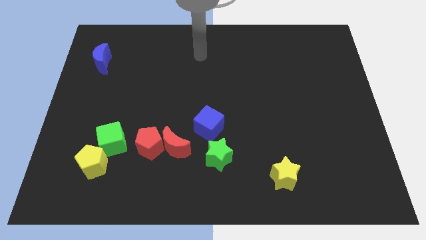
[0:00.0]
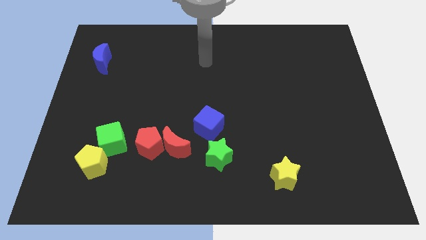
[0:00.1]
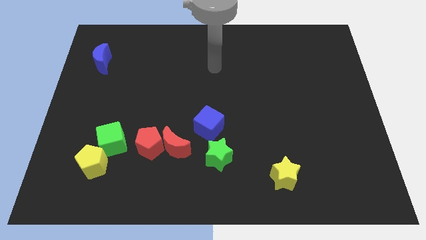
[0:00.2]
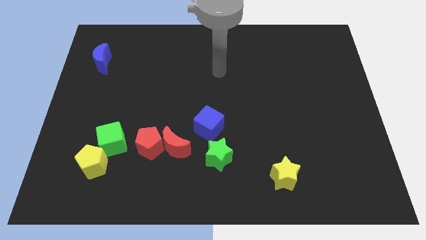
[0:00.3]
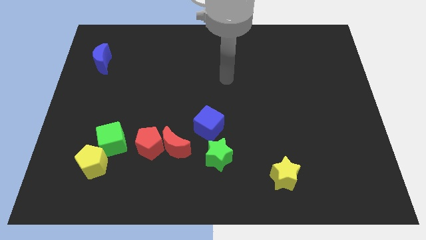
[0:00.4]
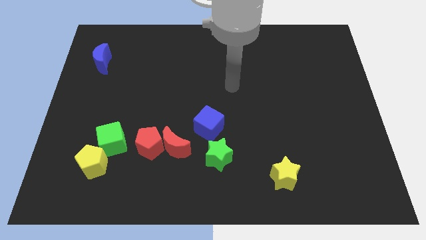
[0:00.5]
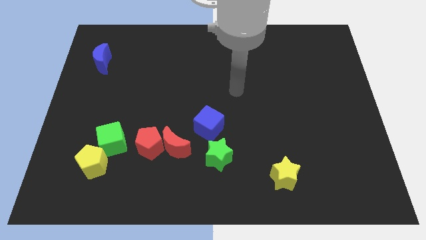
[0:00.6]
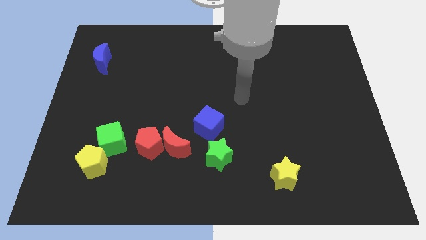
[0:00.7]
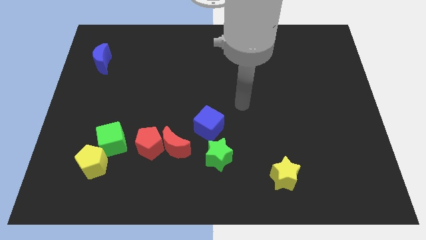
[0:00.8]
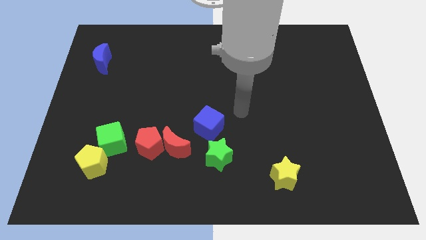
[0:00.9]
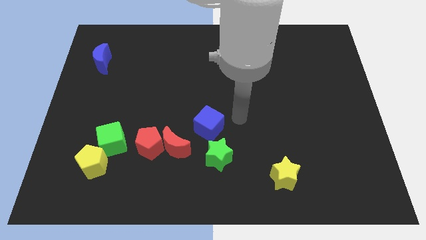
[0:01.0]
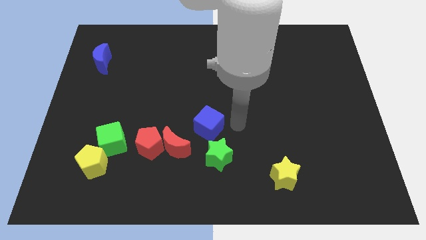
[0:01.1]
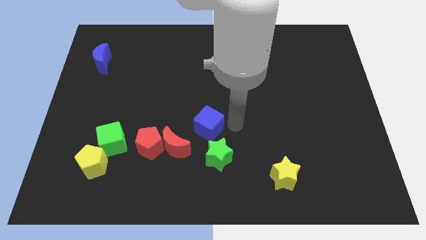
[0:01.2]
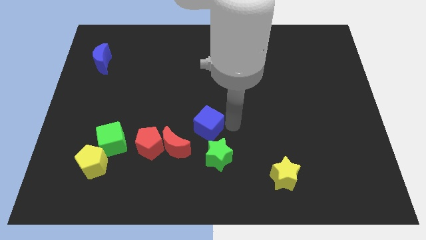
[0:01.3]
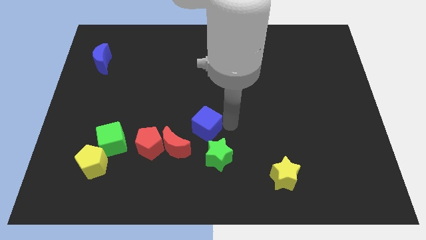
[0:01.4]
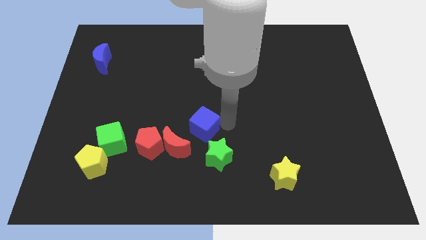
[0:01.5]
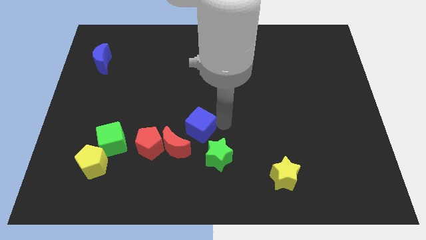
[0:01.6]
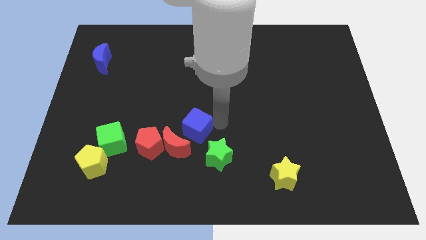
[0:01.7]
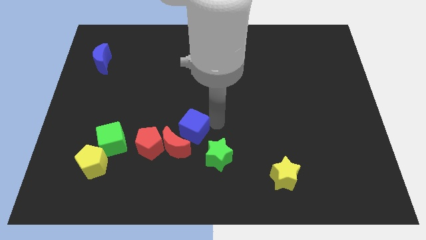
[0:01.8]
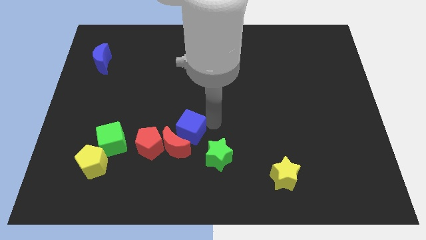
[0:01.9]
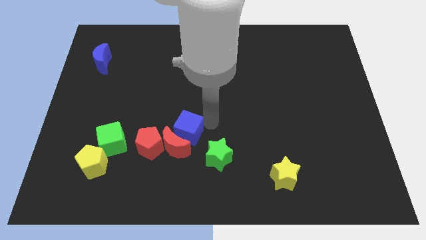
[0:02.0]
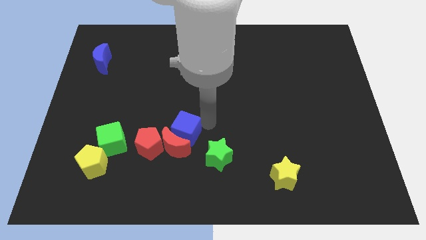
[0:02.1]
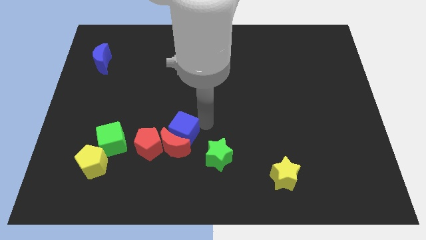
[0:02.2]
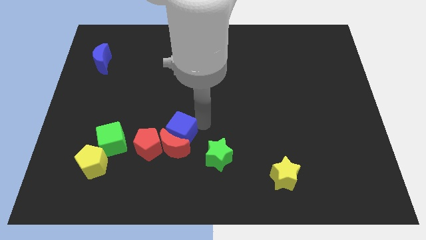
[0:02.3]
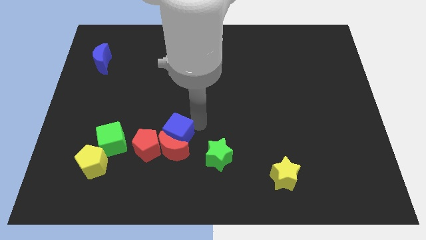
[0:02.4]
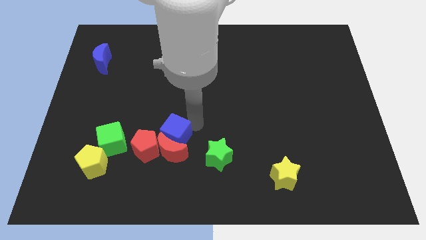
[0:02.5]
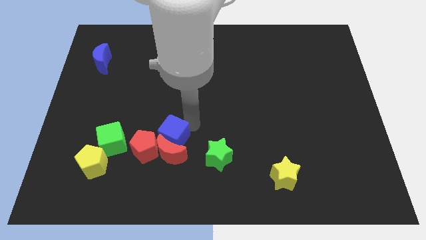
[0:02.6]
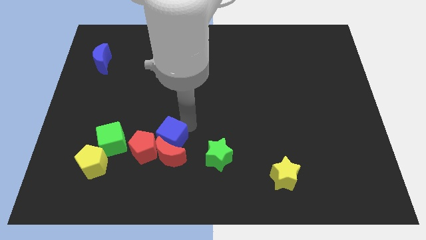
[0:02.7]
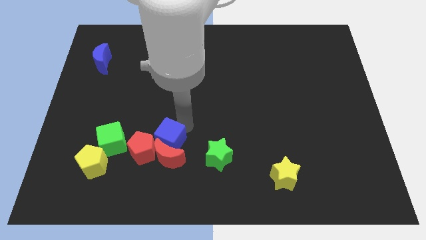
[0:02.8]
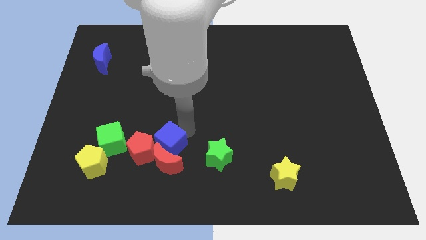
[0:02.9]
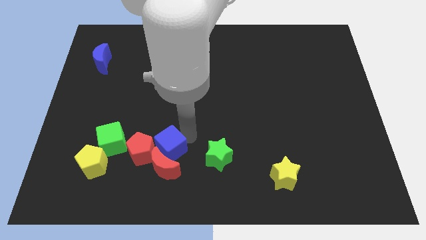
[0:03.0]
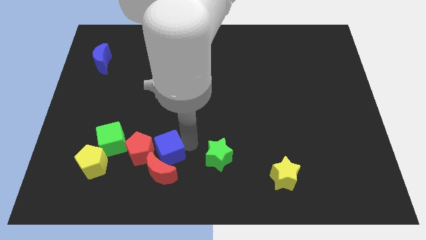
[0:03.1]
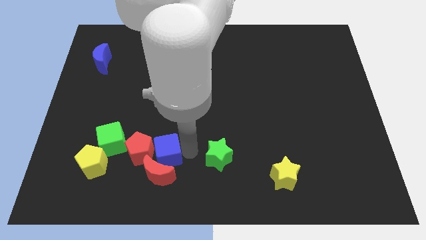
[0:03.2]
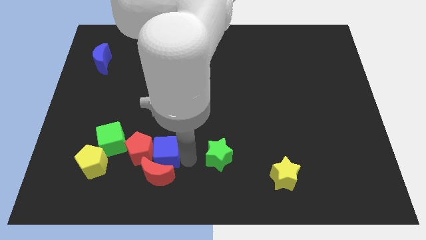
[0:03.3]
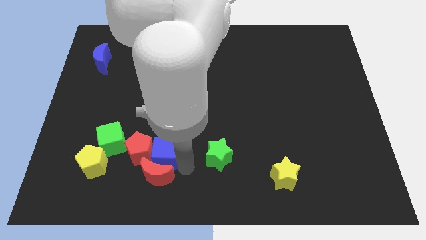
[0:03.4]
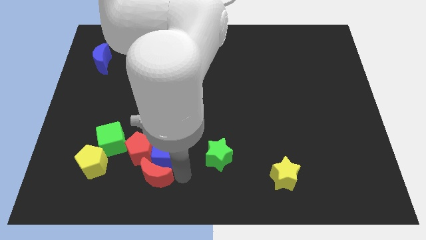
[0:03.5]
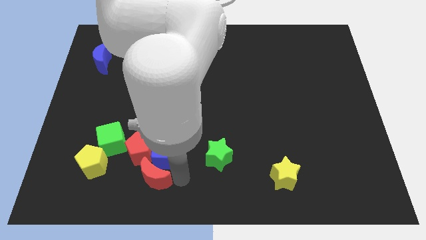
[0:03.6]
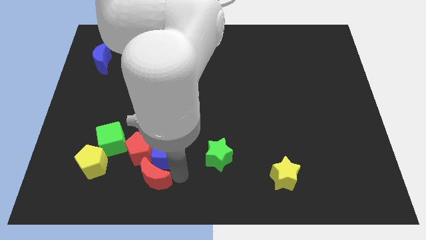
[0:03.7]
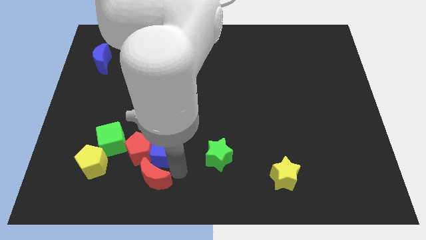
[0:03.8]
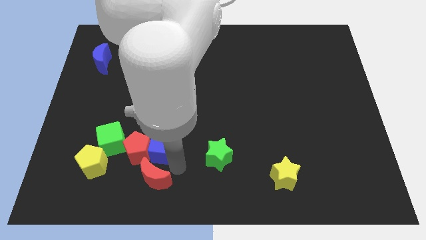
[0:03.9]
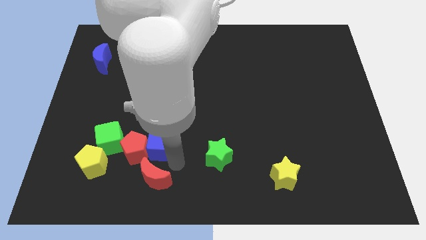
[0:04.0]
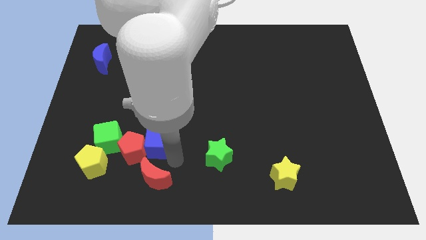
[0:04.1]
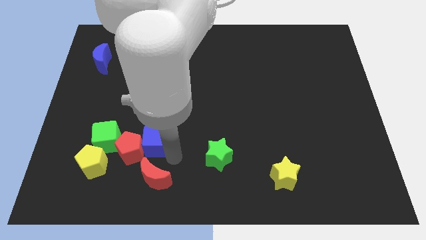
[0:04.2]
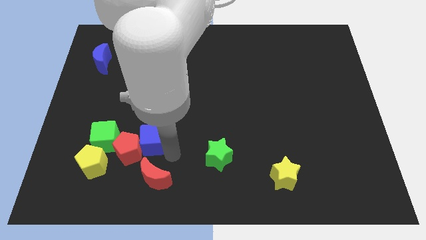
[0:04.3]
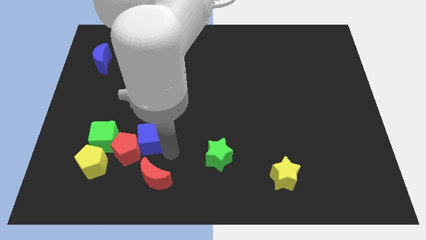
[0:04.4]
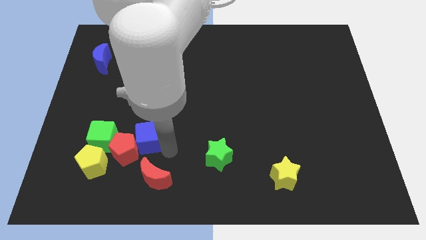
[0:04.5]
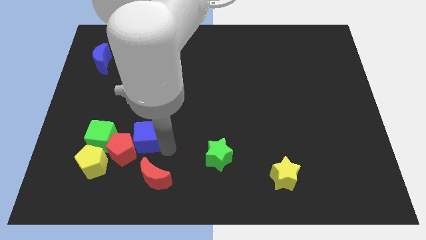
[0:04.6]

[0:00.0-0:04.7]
slide the blue cube to the top right side of the yellow pentagon

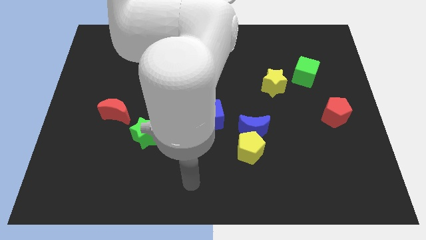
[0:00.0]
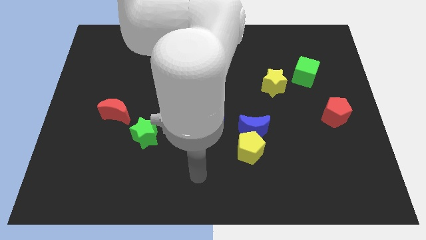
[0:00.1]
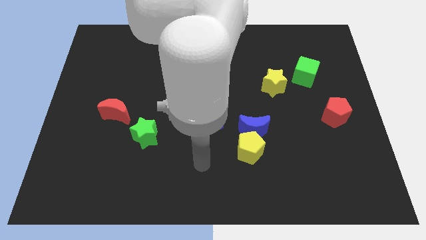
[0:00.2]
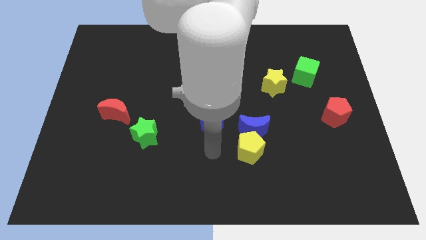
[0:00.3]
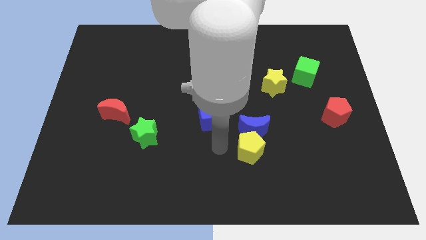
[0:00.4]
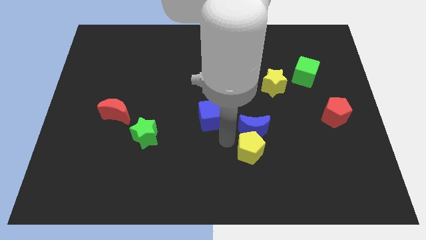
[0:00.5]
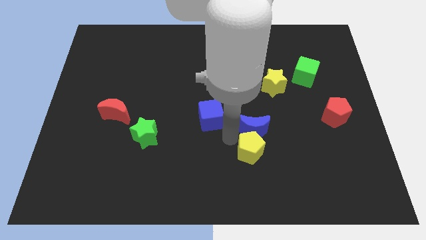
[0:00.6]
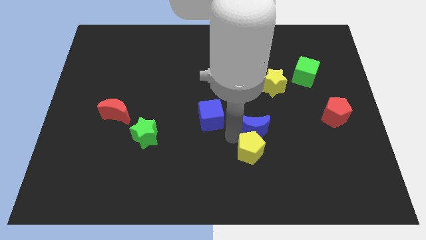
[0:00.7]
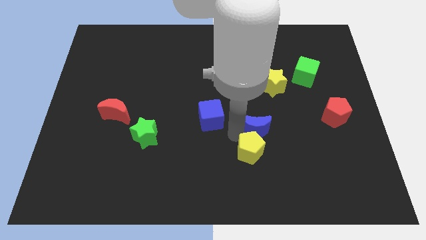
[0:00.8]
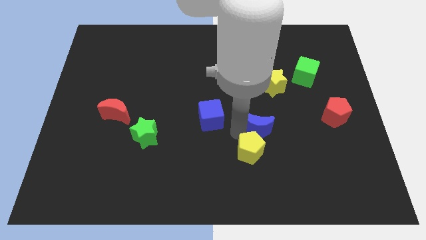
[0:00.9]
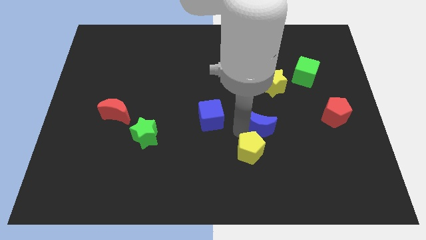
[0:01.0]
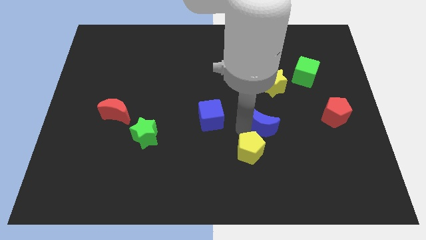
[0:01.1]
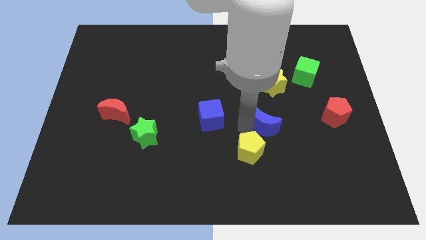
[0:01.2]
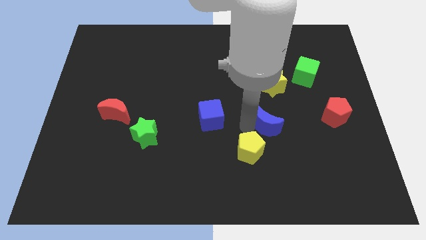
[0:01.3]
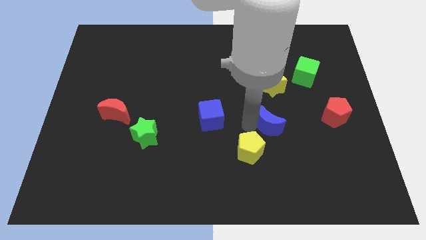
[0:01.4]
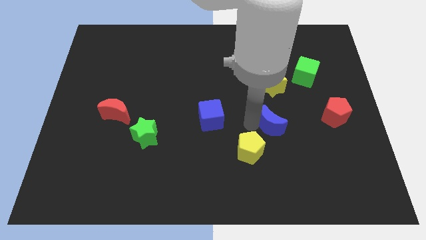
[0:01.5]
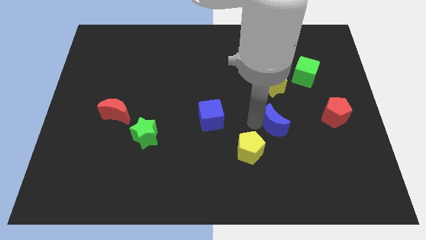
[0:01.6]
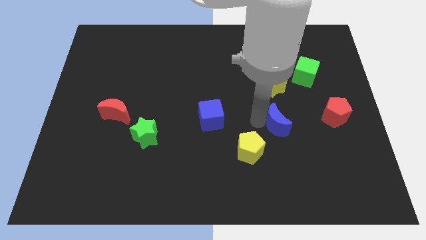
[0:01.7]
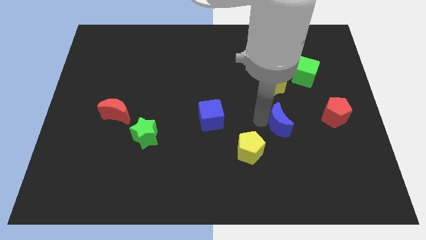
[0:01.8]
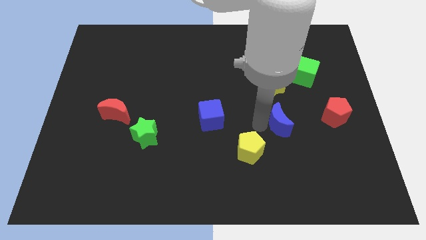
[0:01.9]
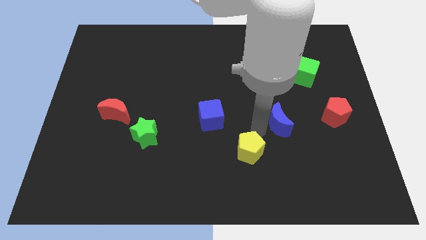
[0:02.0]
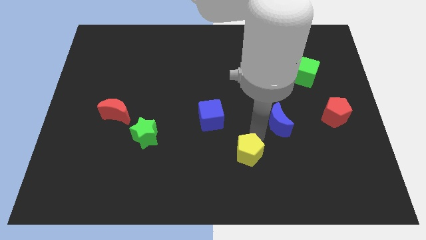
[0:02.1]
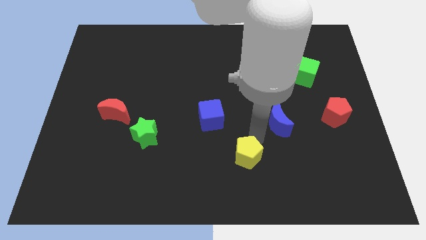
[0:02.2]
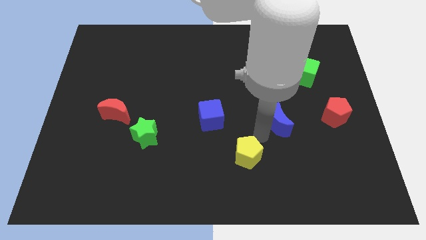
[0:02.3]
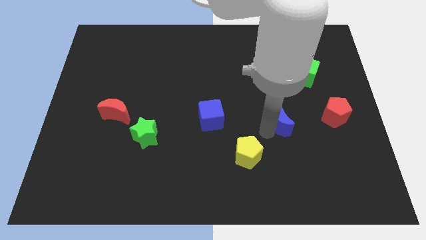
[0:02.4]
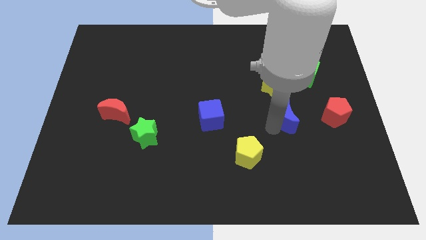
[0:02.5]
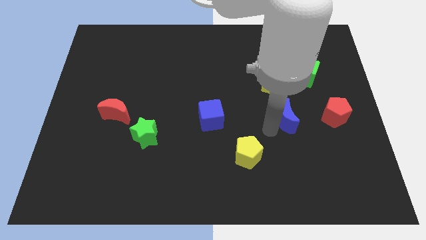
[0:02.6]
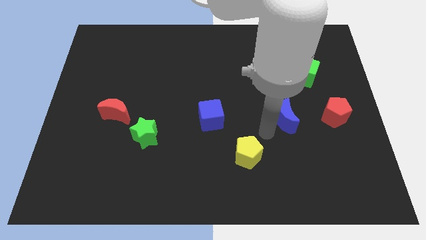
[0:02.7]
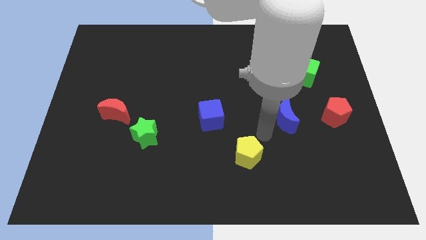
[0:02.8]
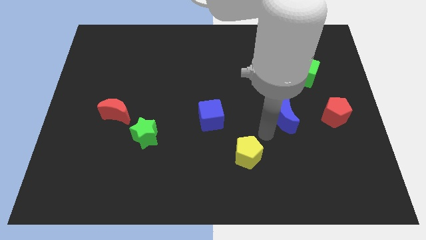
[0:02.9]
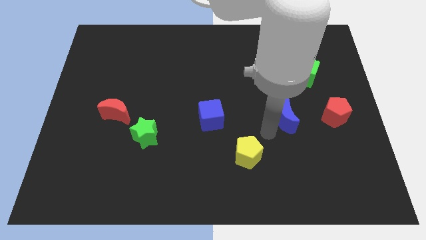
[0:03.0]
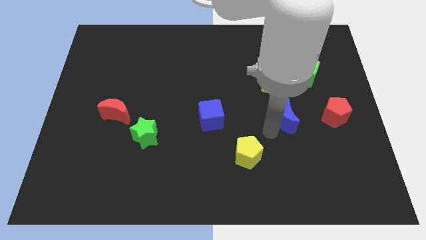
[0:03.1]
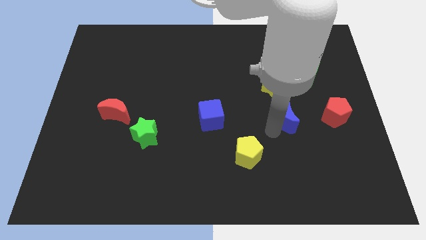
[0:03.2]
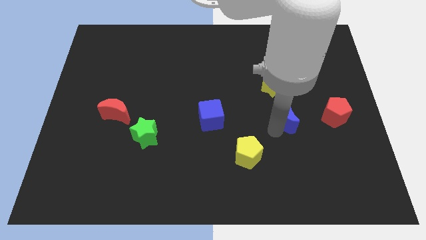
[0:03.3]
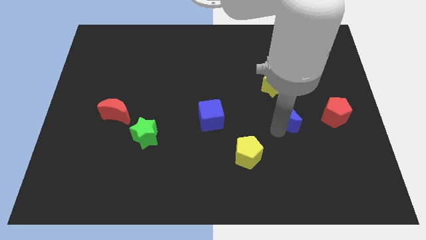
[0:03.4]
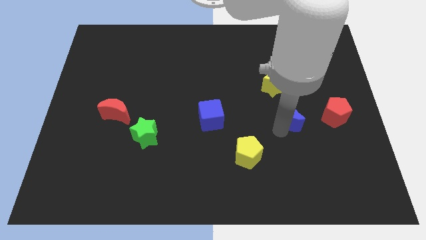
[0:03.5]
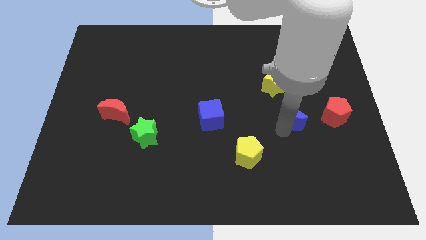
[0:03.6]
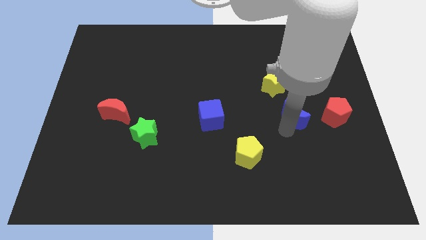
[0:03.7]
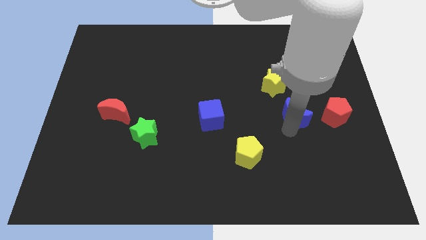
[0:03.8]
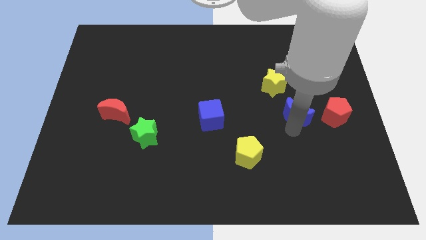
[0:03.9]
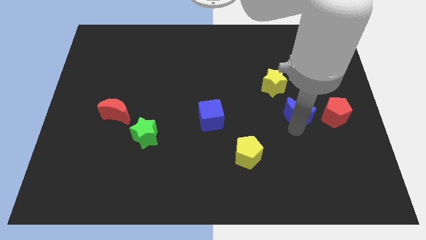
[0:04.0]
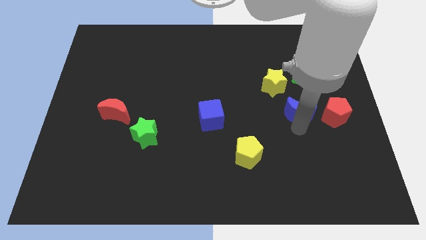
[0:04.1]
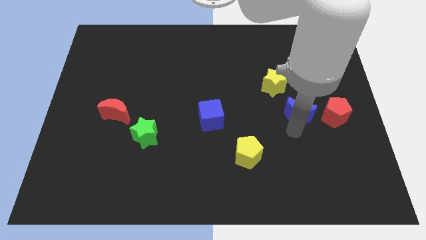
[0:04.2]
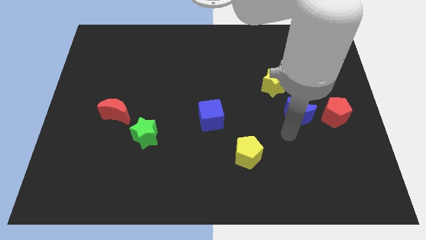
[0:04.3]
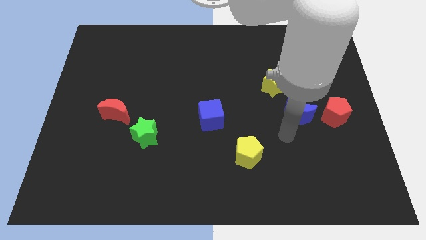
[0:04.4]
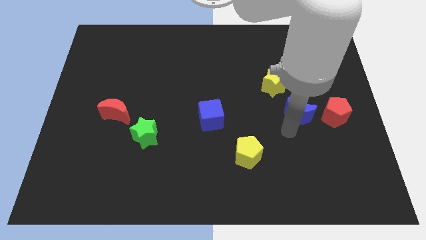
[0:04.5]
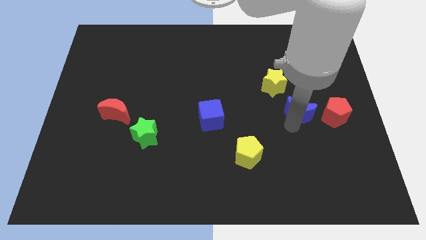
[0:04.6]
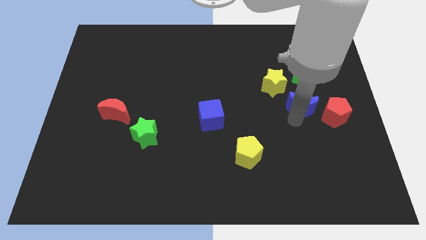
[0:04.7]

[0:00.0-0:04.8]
put the blue moon to the top left side of the red pentagon
